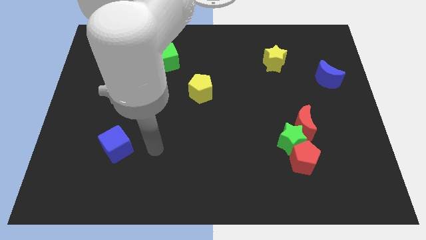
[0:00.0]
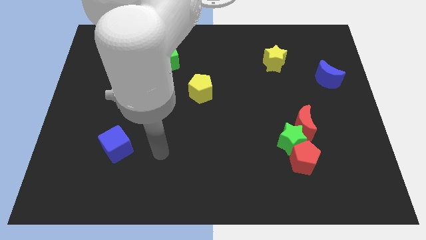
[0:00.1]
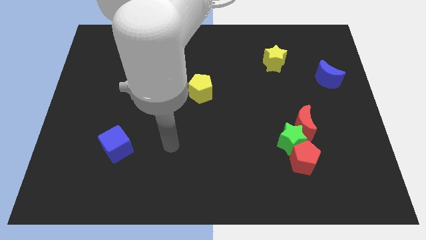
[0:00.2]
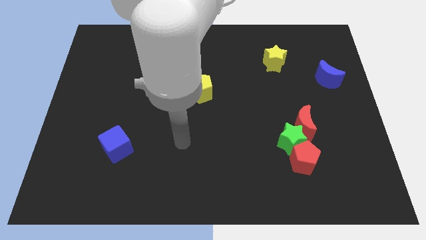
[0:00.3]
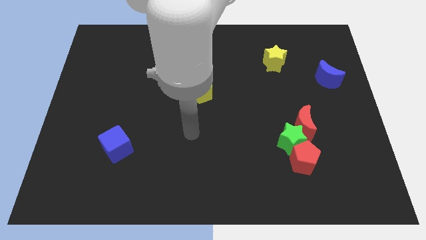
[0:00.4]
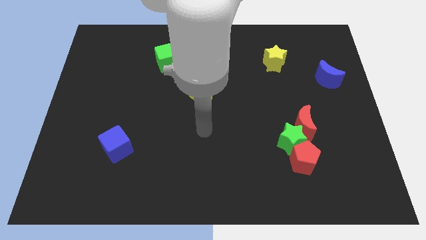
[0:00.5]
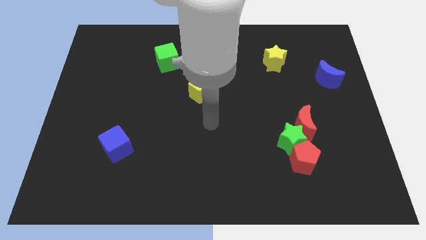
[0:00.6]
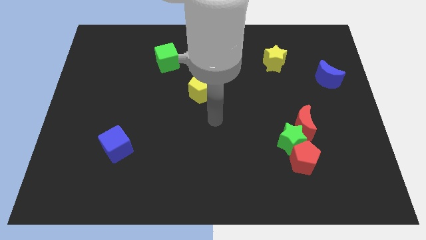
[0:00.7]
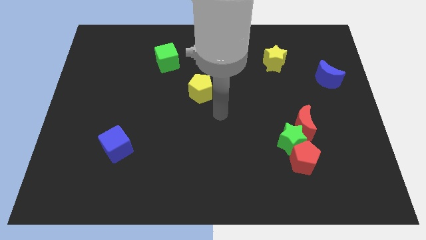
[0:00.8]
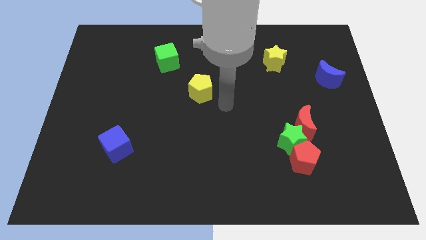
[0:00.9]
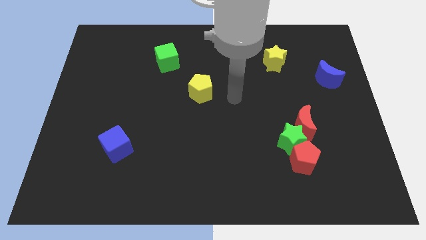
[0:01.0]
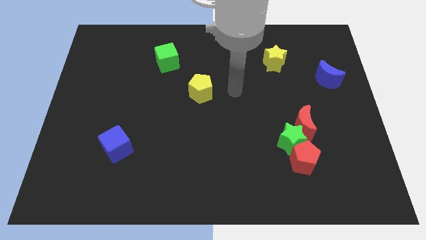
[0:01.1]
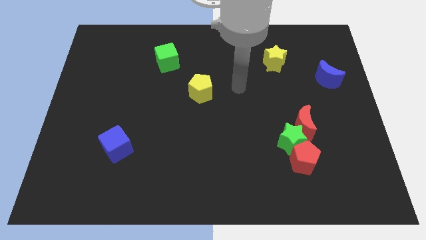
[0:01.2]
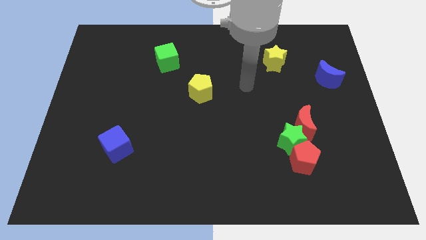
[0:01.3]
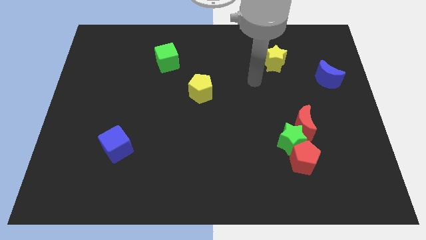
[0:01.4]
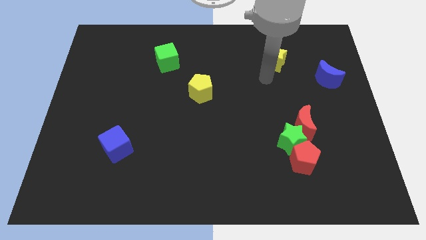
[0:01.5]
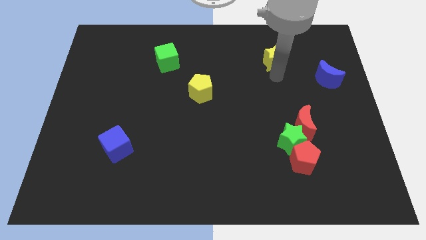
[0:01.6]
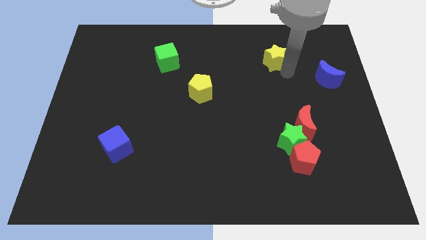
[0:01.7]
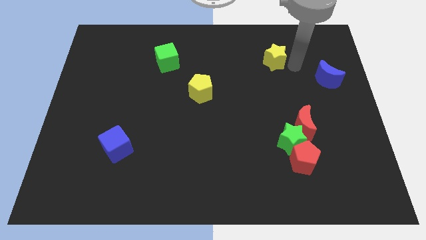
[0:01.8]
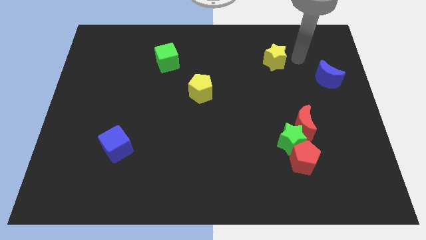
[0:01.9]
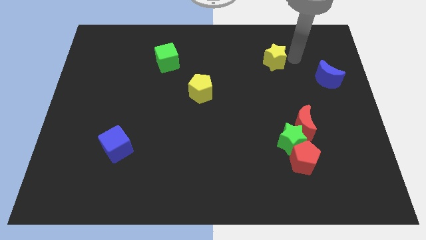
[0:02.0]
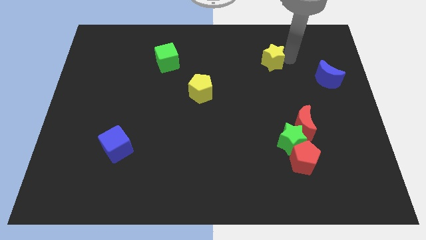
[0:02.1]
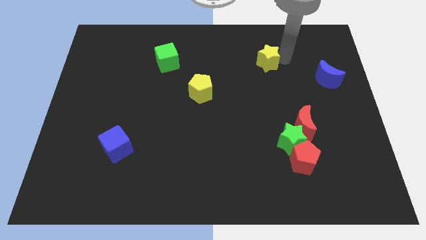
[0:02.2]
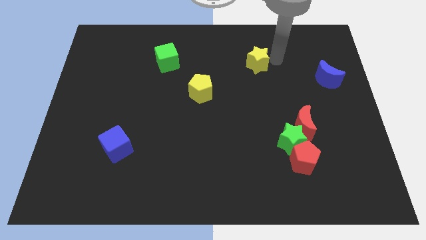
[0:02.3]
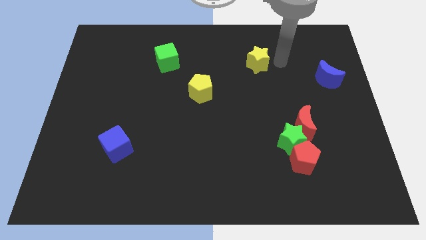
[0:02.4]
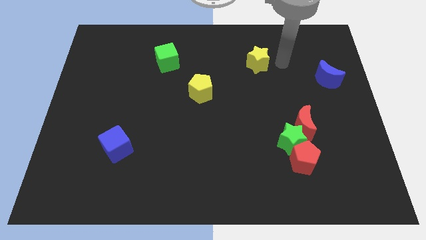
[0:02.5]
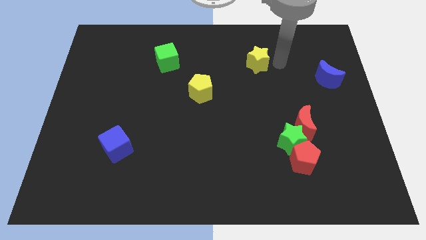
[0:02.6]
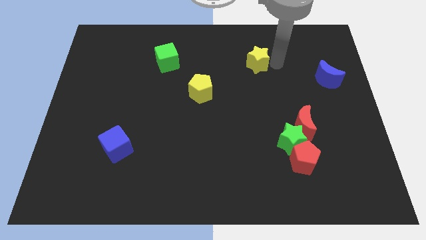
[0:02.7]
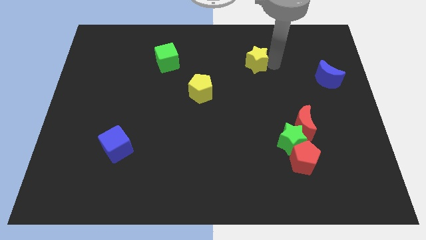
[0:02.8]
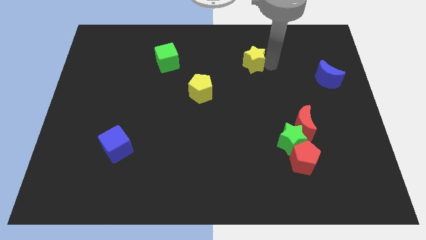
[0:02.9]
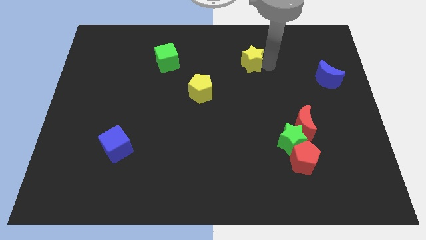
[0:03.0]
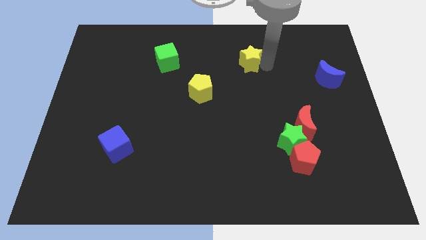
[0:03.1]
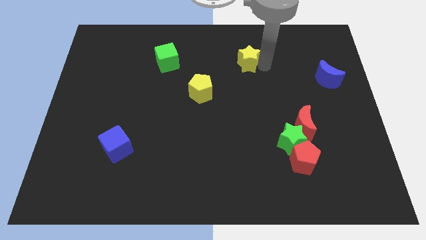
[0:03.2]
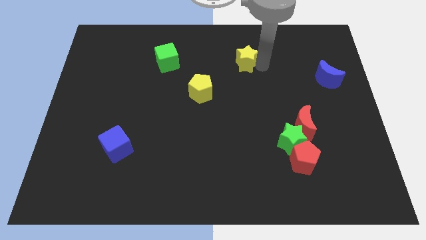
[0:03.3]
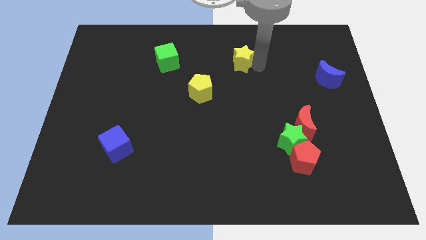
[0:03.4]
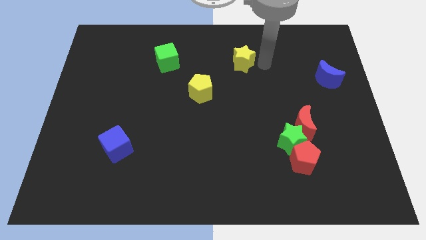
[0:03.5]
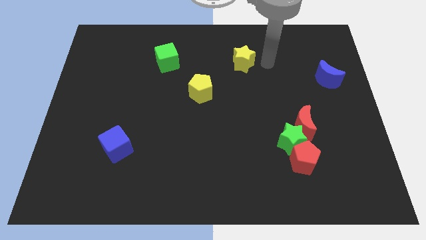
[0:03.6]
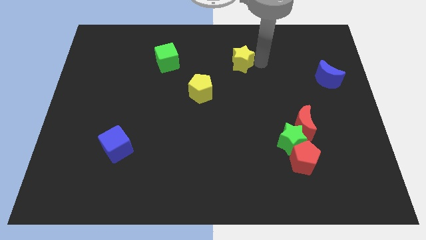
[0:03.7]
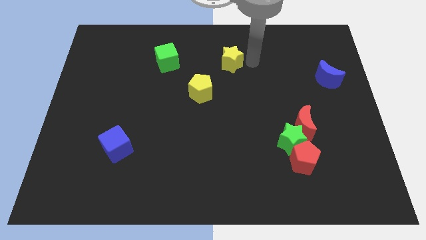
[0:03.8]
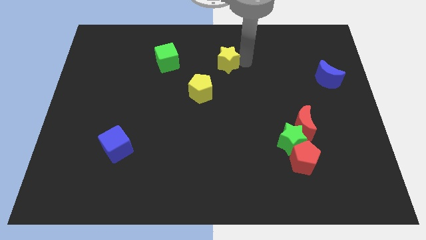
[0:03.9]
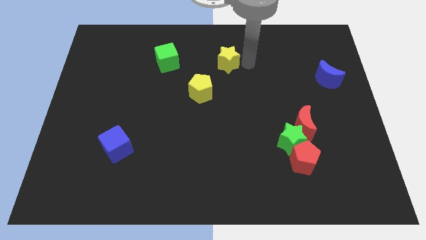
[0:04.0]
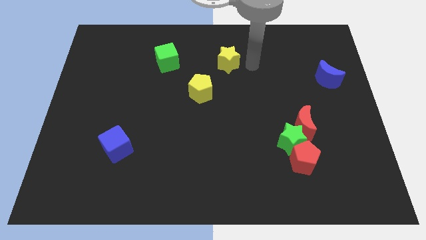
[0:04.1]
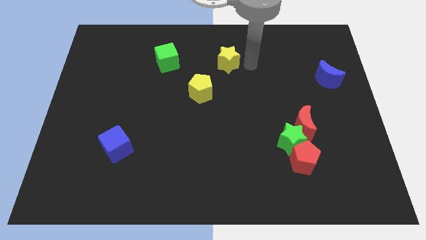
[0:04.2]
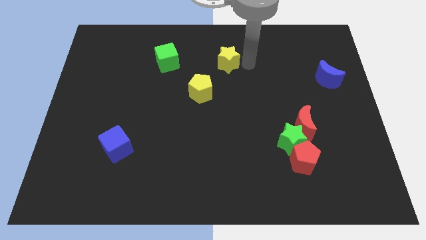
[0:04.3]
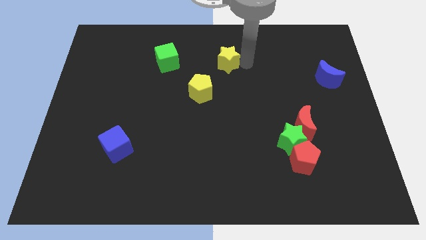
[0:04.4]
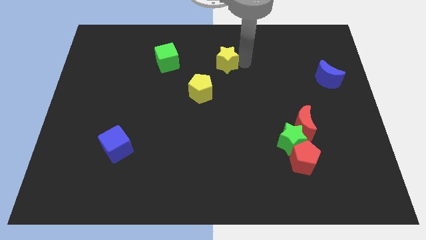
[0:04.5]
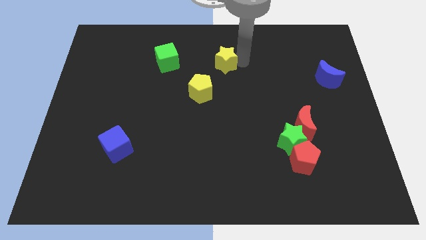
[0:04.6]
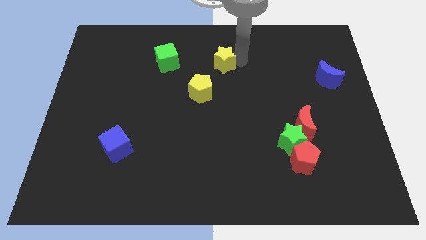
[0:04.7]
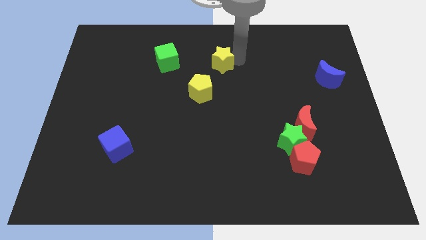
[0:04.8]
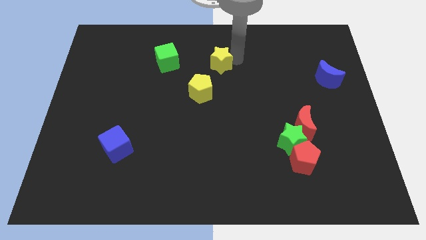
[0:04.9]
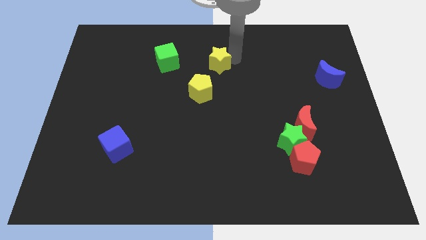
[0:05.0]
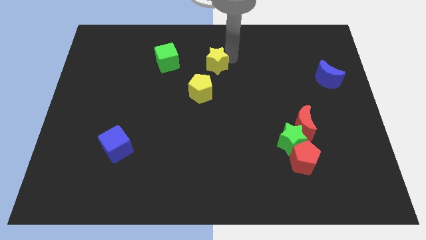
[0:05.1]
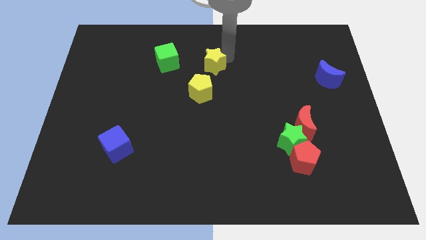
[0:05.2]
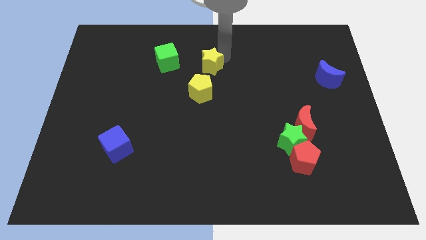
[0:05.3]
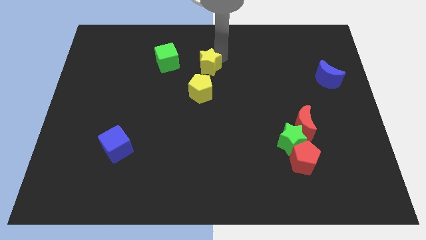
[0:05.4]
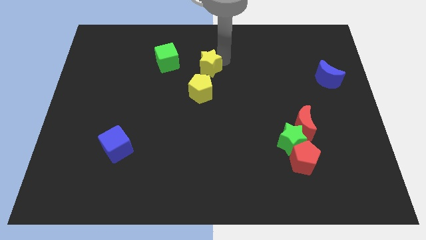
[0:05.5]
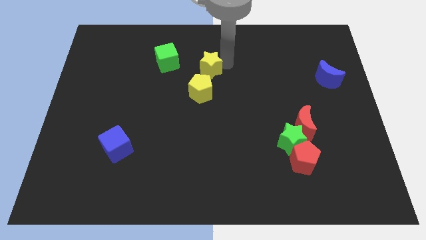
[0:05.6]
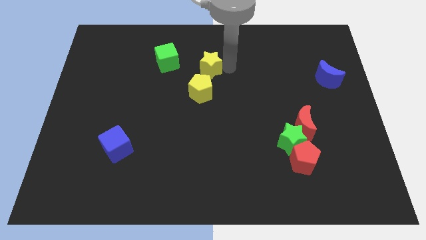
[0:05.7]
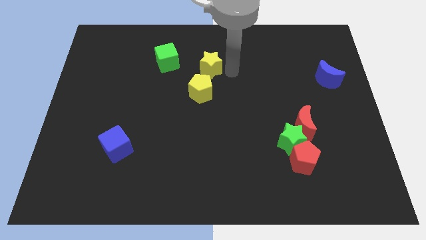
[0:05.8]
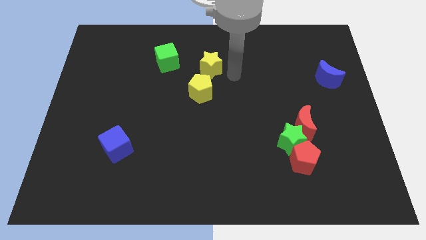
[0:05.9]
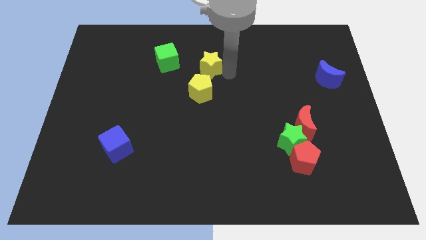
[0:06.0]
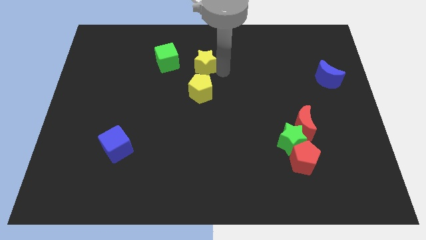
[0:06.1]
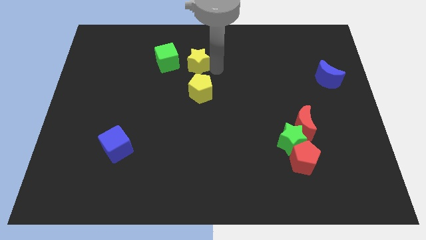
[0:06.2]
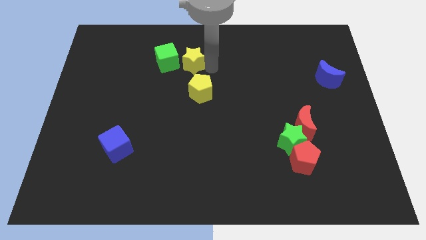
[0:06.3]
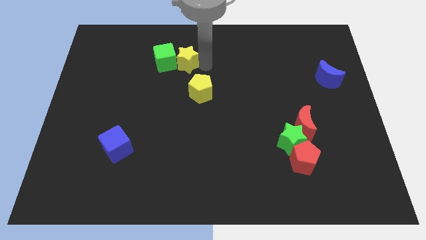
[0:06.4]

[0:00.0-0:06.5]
put the yellow star to the green cube

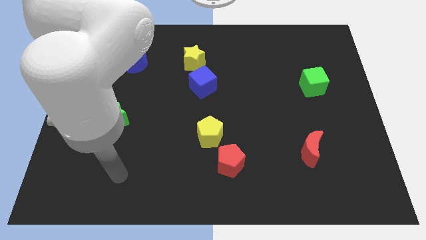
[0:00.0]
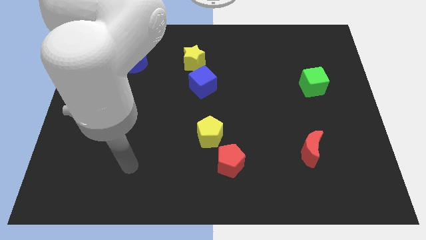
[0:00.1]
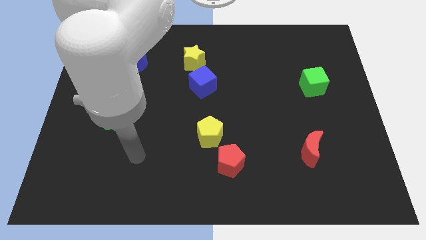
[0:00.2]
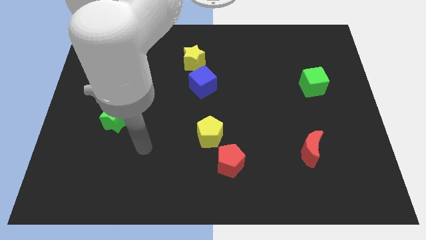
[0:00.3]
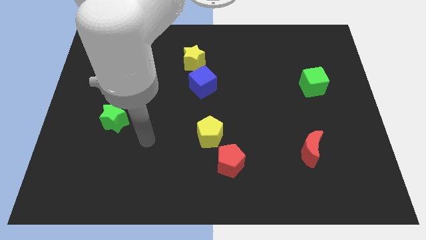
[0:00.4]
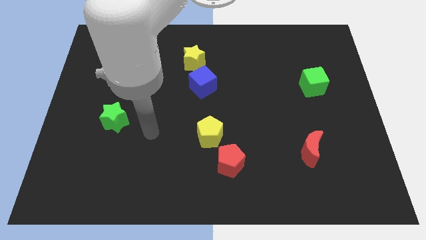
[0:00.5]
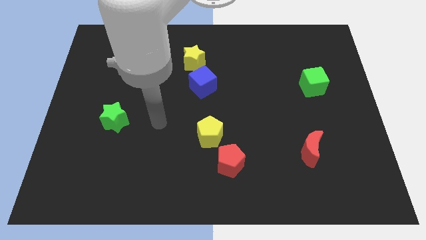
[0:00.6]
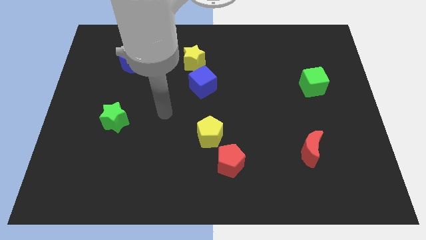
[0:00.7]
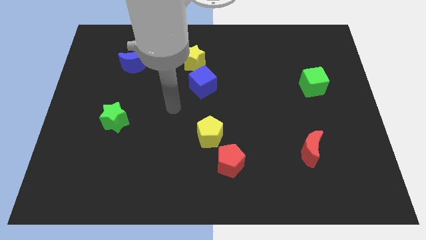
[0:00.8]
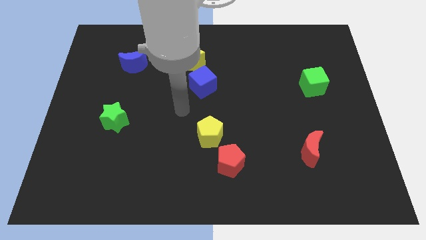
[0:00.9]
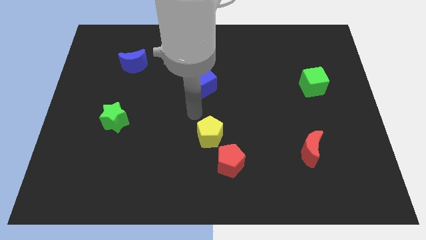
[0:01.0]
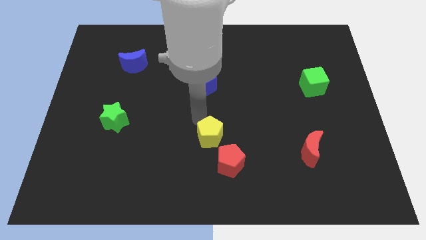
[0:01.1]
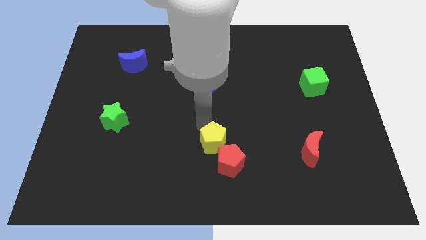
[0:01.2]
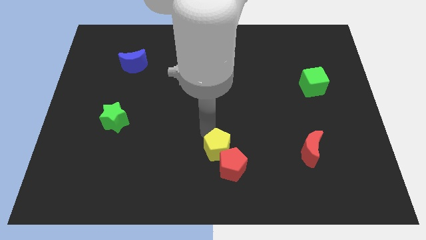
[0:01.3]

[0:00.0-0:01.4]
put the yellow pentagon to the red pentagon
